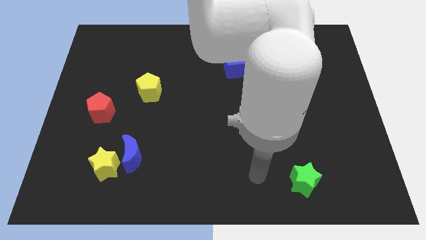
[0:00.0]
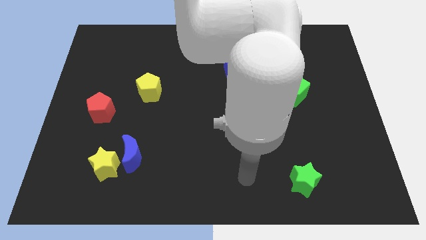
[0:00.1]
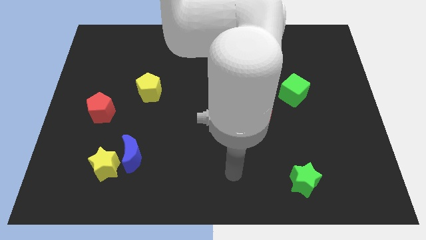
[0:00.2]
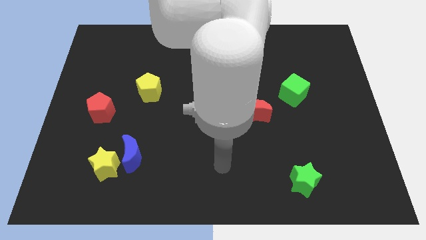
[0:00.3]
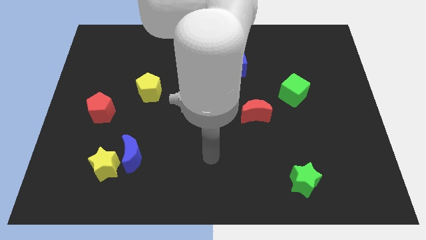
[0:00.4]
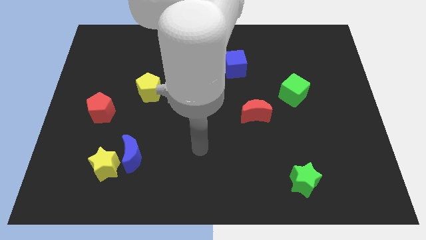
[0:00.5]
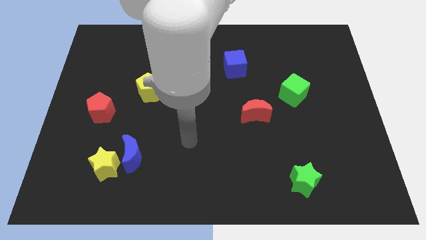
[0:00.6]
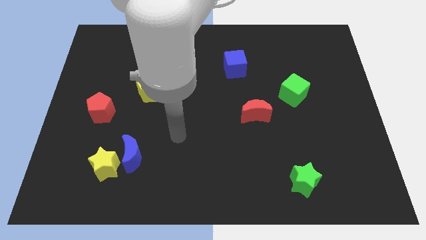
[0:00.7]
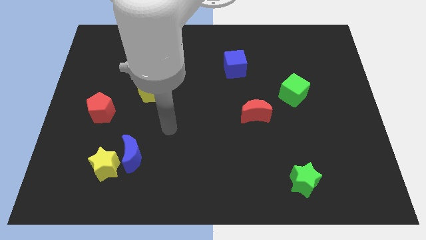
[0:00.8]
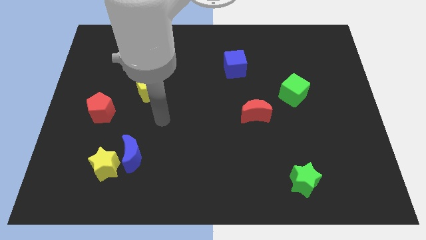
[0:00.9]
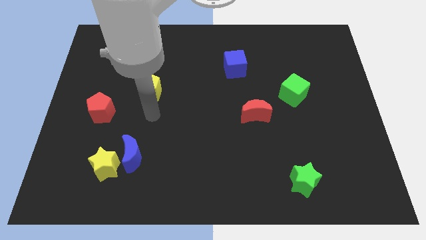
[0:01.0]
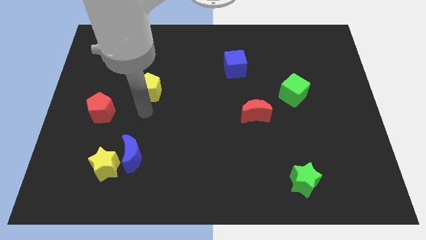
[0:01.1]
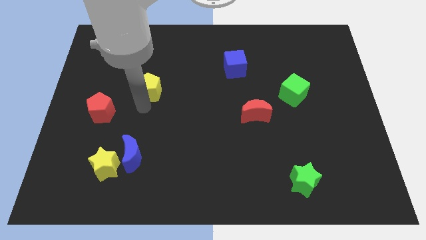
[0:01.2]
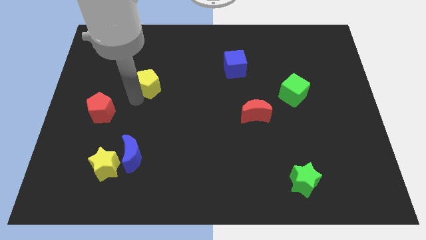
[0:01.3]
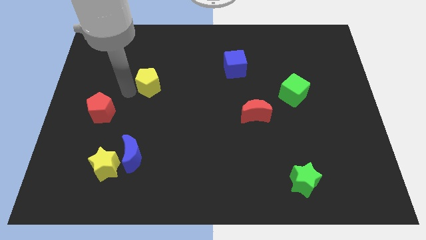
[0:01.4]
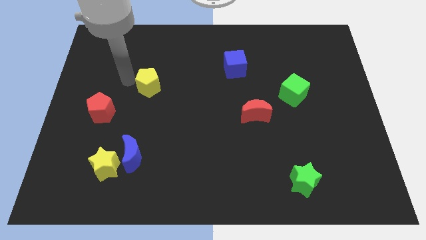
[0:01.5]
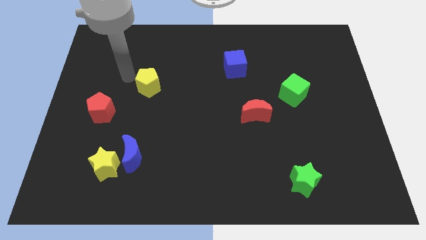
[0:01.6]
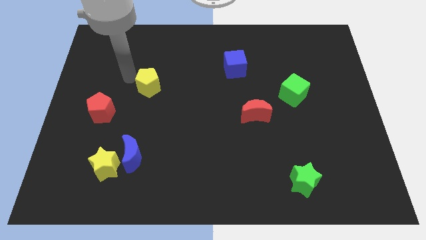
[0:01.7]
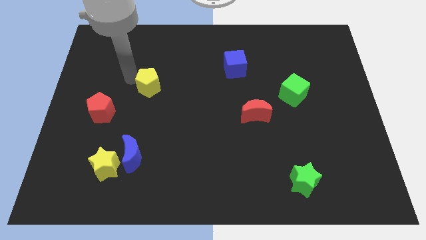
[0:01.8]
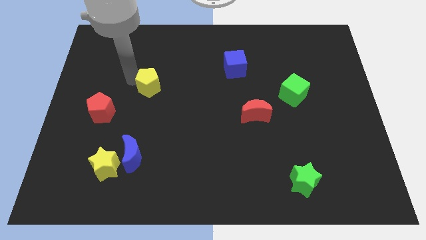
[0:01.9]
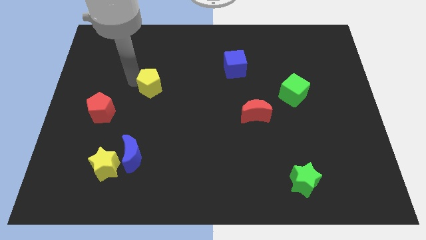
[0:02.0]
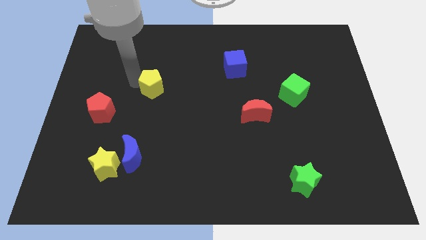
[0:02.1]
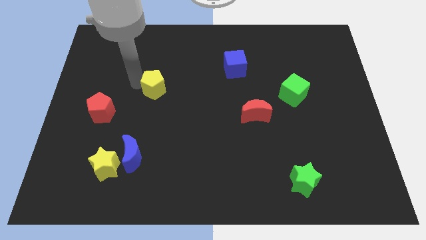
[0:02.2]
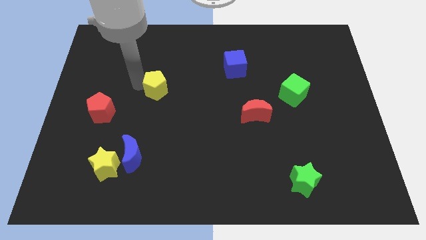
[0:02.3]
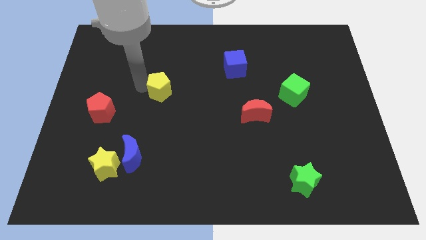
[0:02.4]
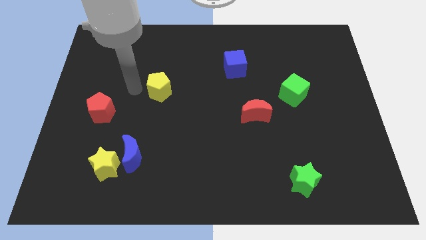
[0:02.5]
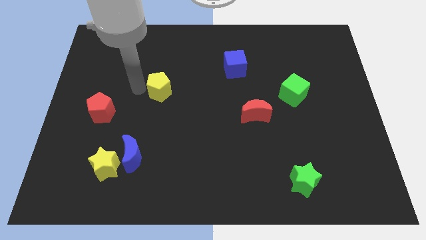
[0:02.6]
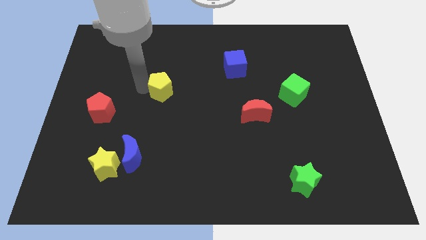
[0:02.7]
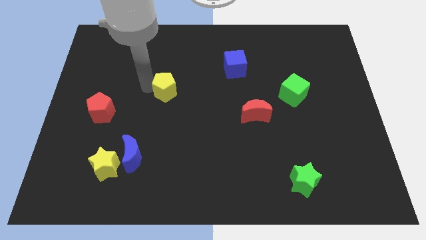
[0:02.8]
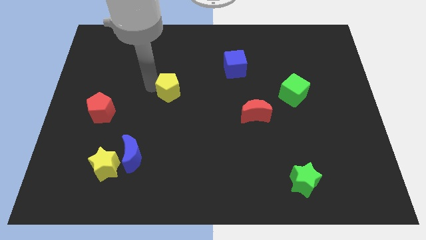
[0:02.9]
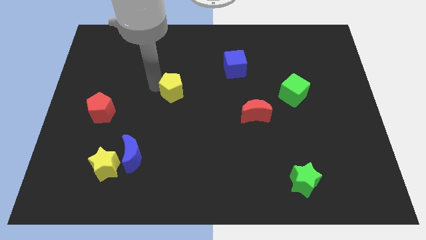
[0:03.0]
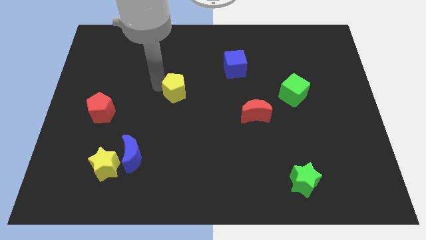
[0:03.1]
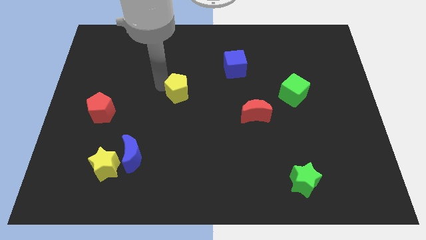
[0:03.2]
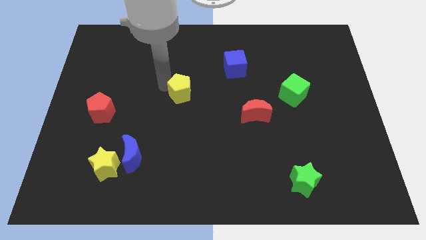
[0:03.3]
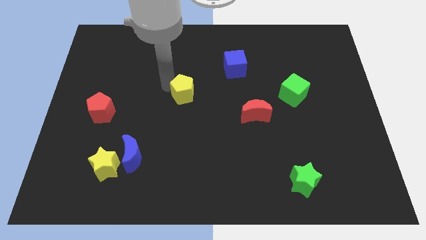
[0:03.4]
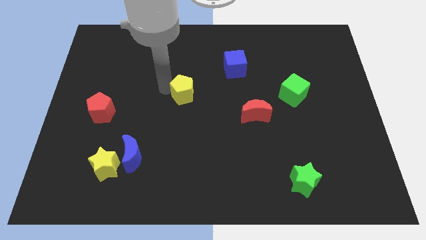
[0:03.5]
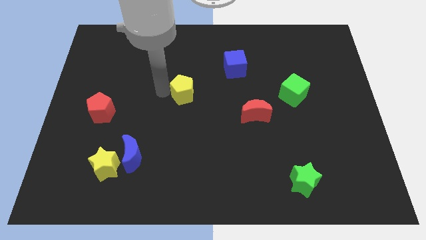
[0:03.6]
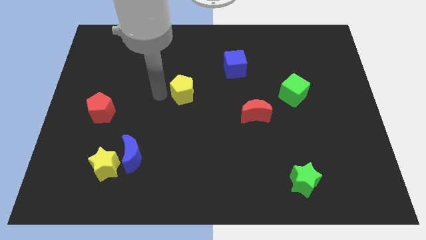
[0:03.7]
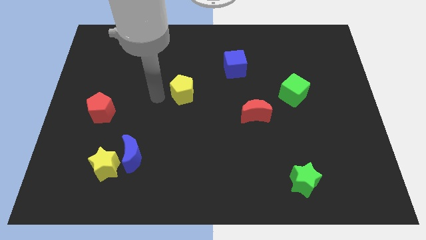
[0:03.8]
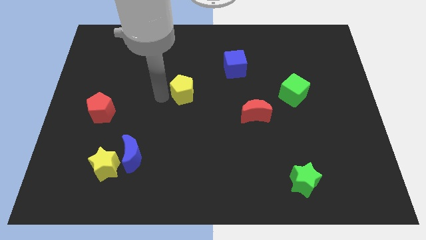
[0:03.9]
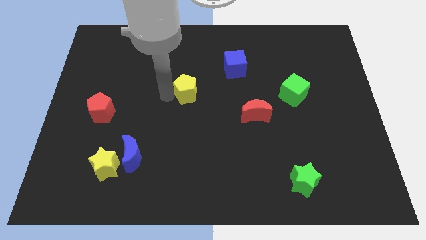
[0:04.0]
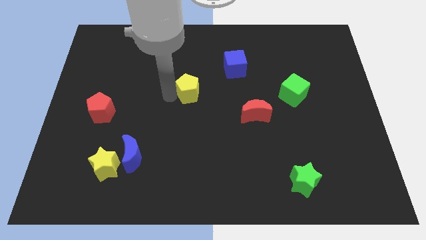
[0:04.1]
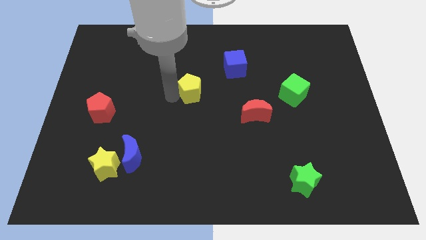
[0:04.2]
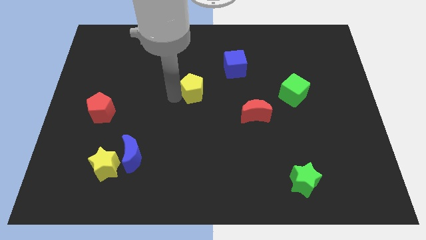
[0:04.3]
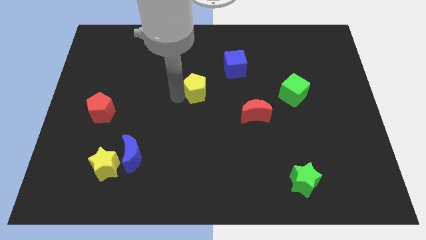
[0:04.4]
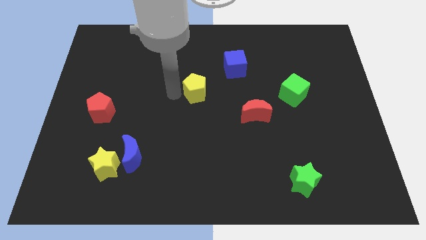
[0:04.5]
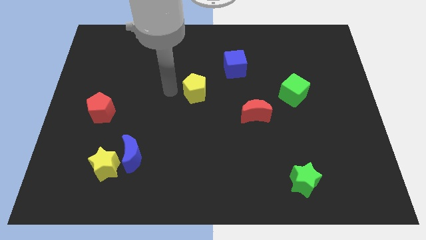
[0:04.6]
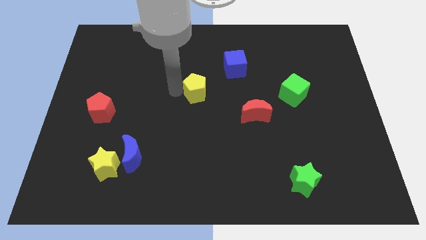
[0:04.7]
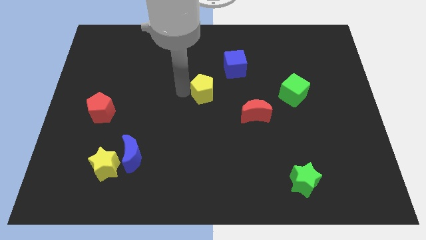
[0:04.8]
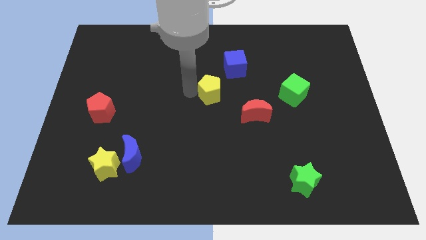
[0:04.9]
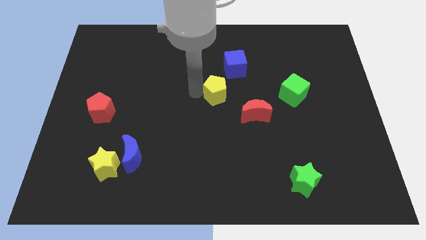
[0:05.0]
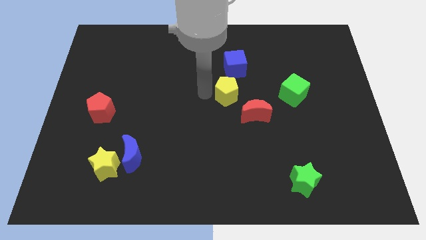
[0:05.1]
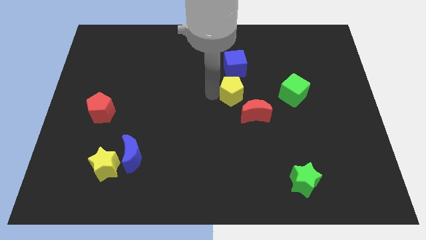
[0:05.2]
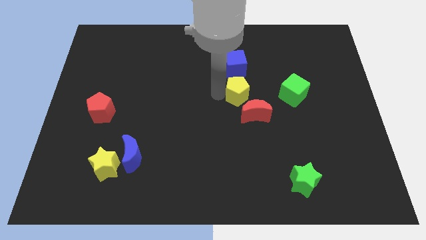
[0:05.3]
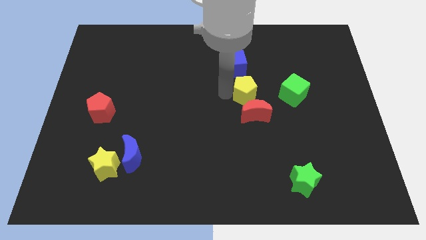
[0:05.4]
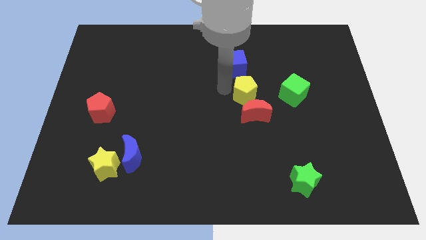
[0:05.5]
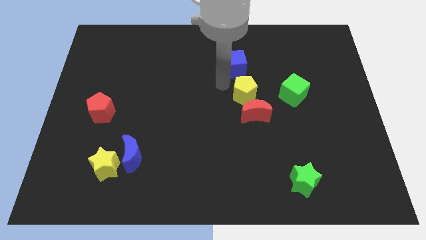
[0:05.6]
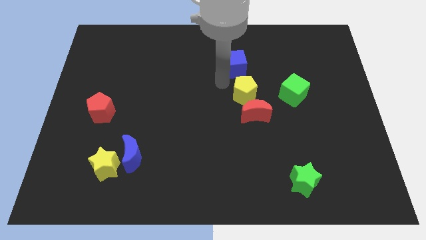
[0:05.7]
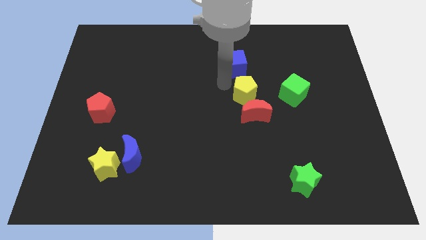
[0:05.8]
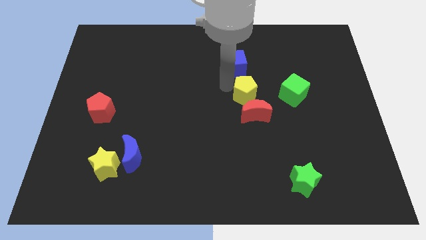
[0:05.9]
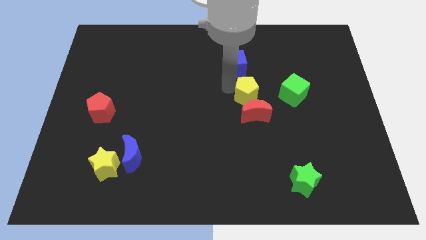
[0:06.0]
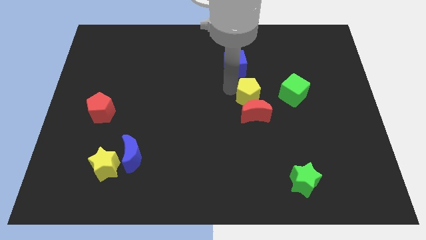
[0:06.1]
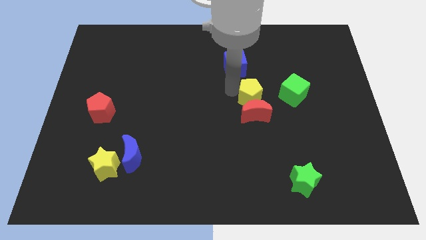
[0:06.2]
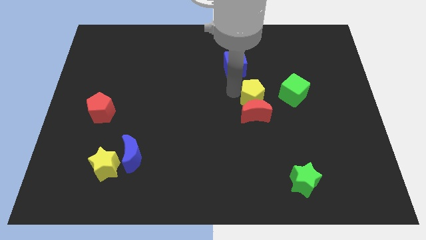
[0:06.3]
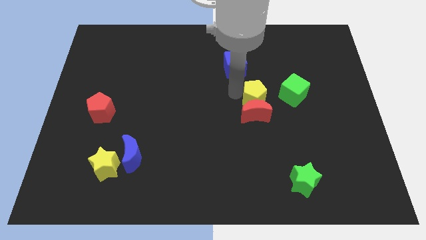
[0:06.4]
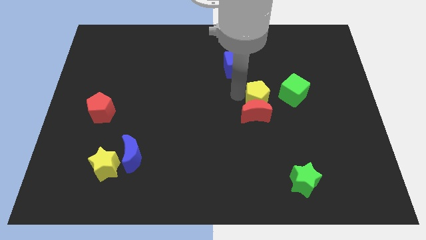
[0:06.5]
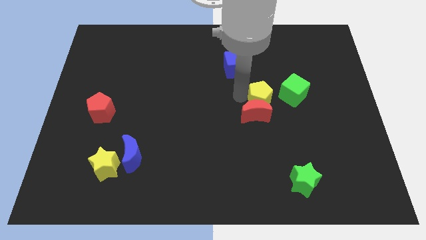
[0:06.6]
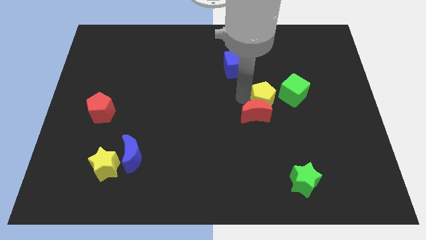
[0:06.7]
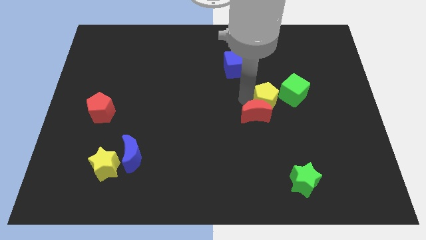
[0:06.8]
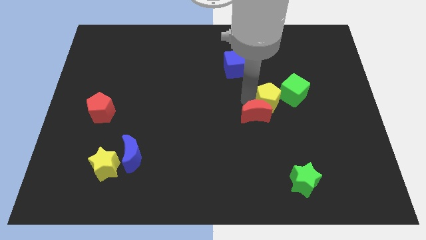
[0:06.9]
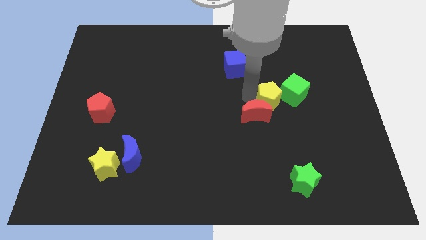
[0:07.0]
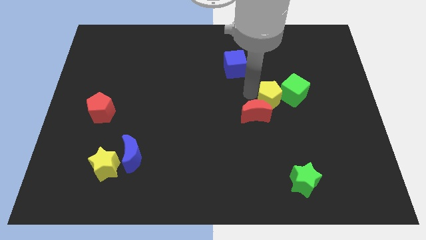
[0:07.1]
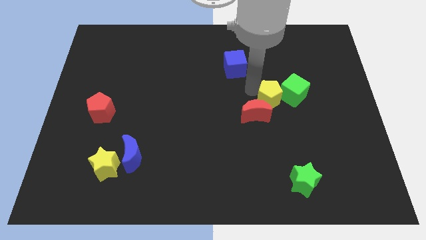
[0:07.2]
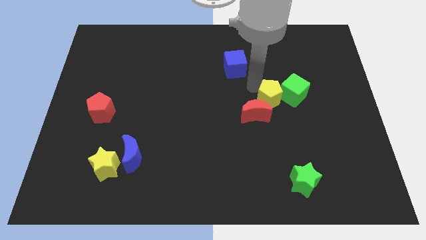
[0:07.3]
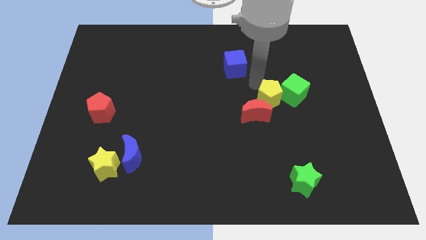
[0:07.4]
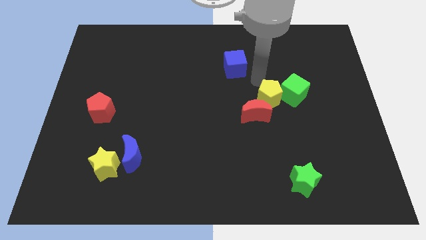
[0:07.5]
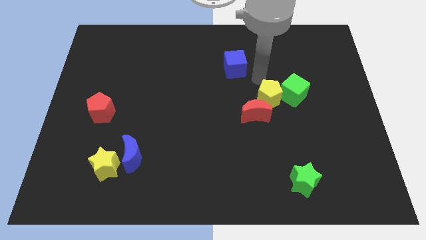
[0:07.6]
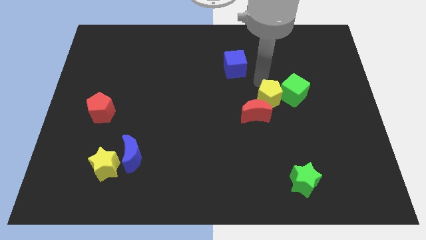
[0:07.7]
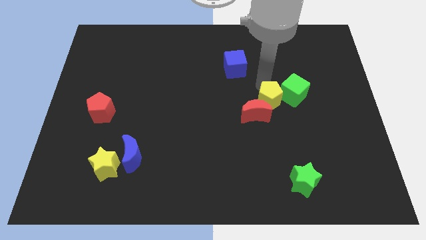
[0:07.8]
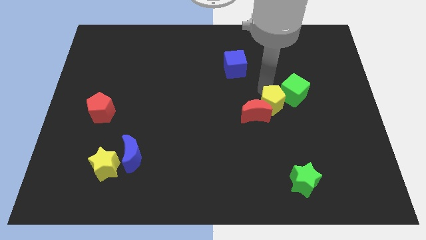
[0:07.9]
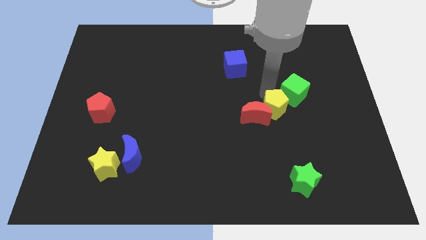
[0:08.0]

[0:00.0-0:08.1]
put the yellow pentagon to the bottom side of the green cube
